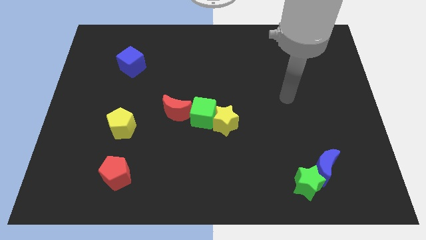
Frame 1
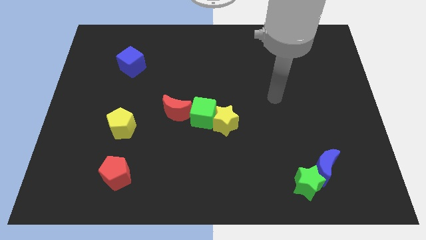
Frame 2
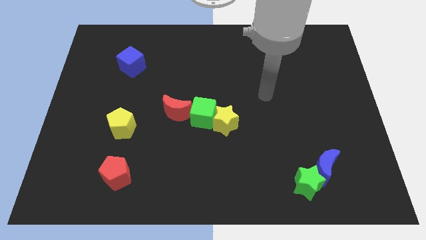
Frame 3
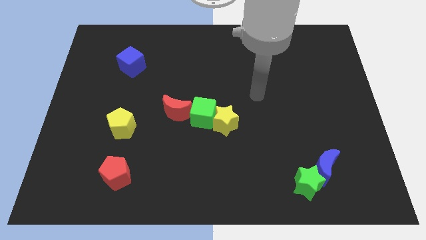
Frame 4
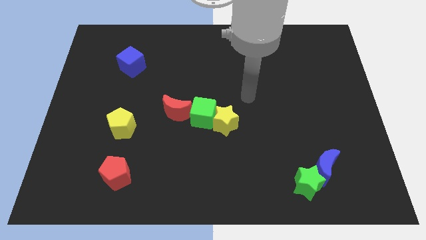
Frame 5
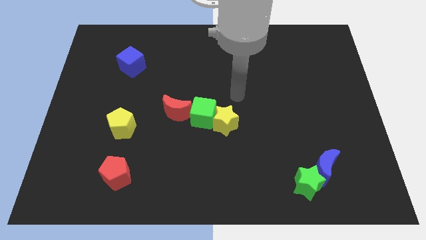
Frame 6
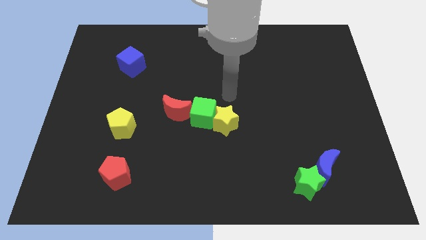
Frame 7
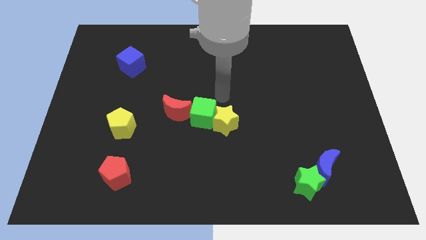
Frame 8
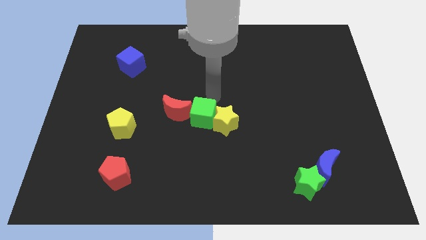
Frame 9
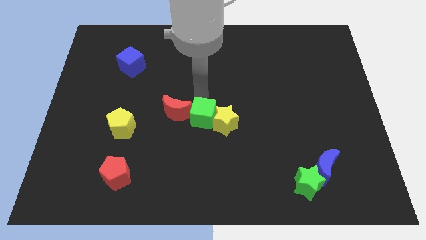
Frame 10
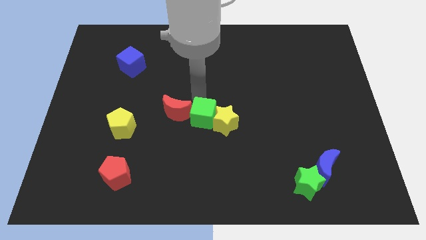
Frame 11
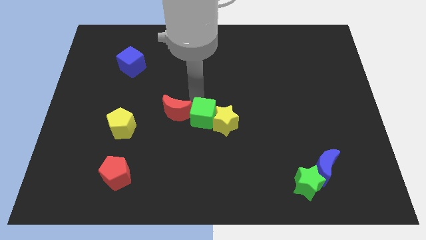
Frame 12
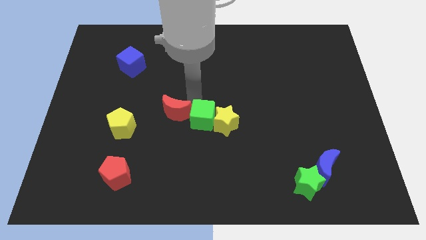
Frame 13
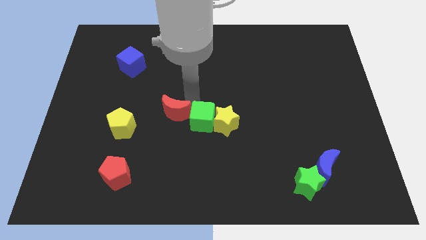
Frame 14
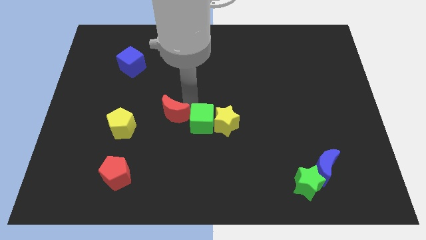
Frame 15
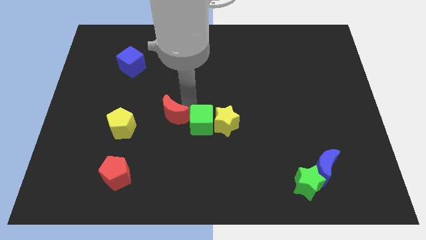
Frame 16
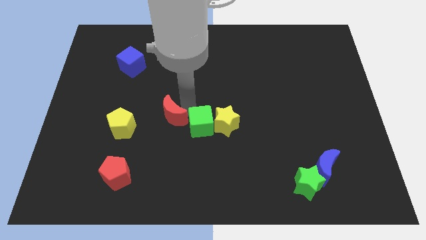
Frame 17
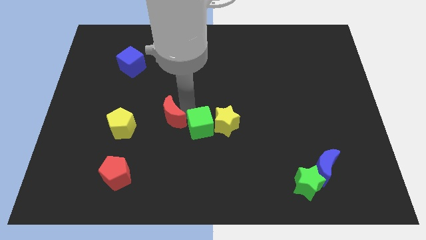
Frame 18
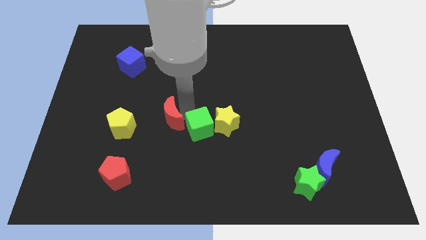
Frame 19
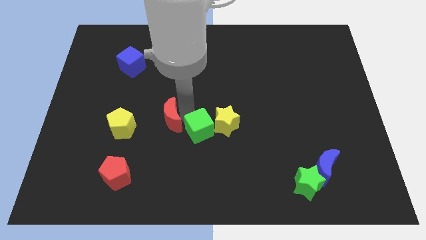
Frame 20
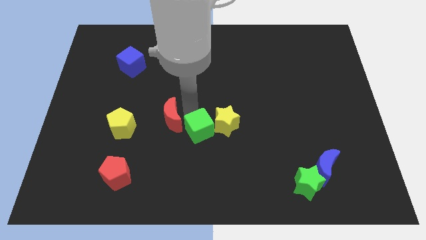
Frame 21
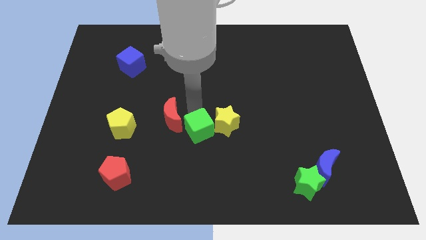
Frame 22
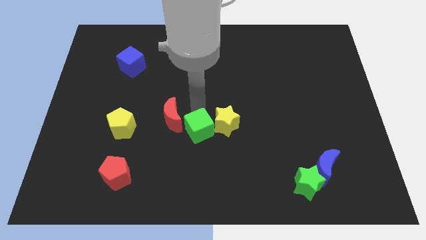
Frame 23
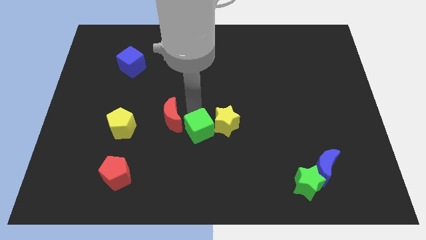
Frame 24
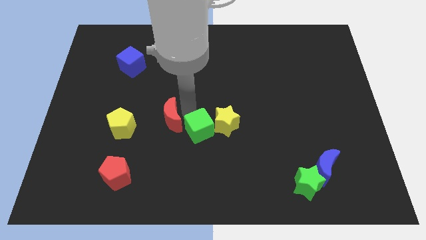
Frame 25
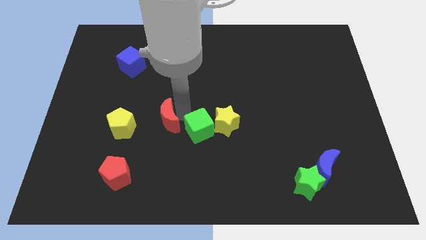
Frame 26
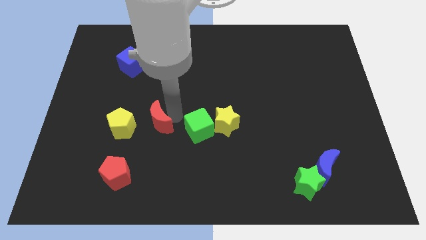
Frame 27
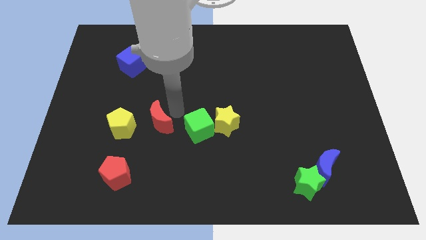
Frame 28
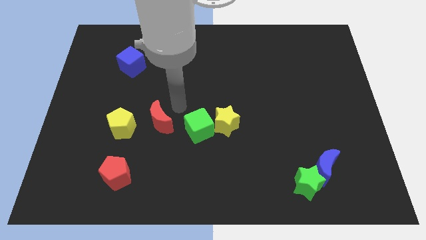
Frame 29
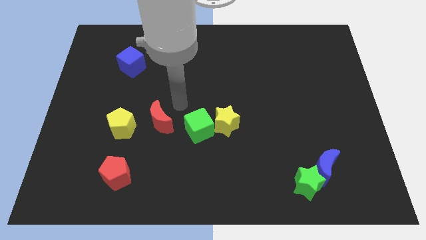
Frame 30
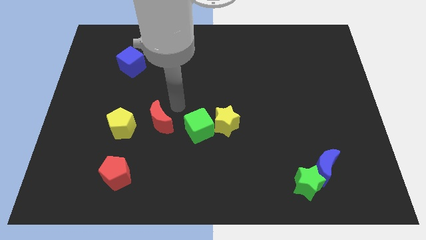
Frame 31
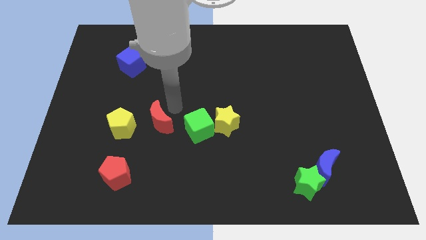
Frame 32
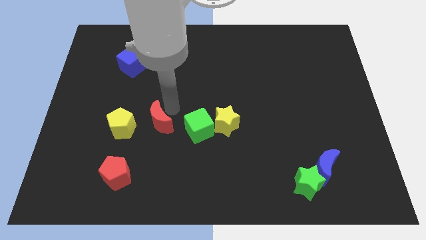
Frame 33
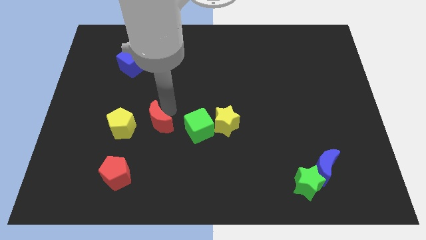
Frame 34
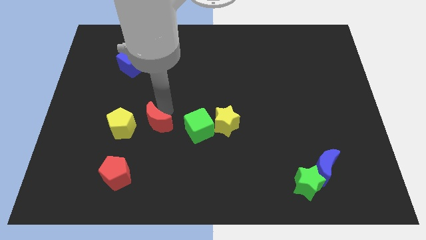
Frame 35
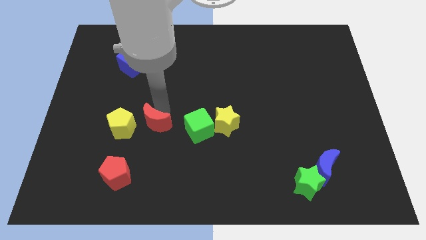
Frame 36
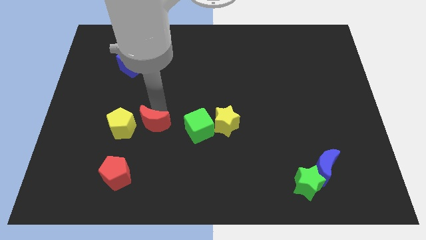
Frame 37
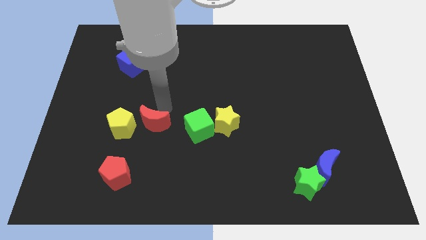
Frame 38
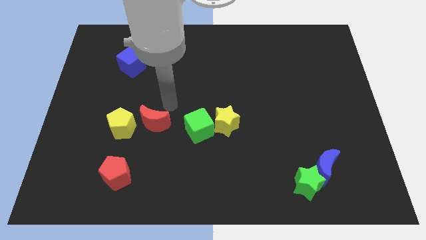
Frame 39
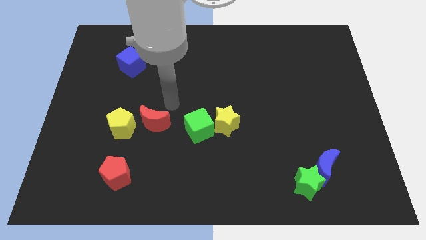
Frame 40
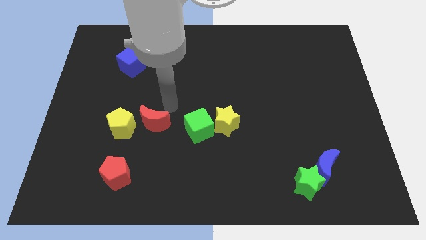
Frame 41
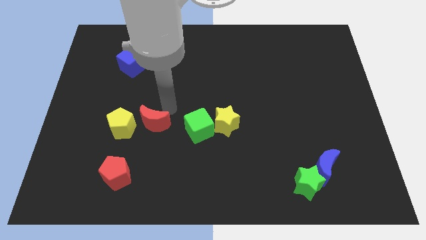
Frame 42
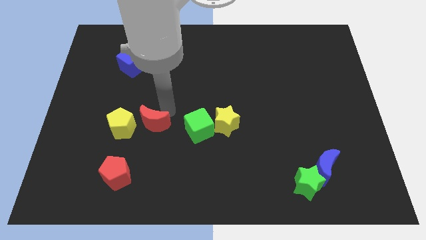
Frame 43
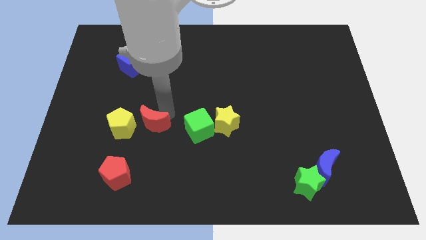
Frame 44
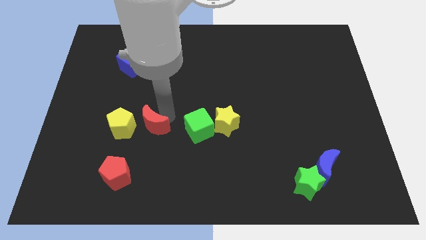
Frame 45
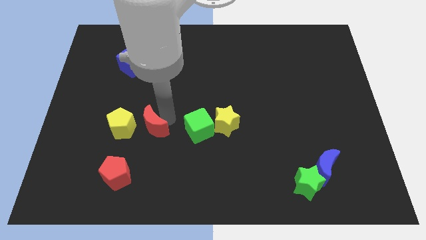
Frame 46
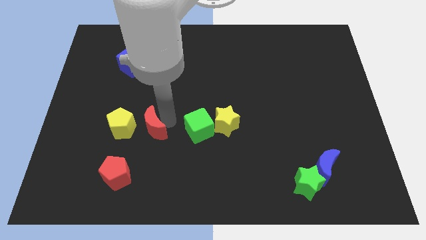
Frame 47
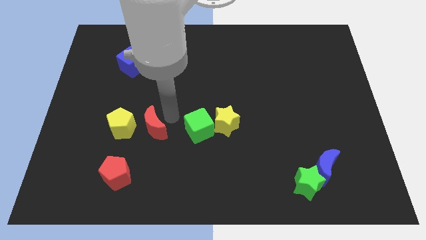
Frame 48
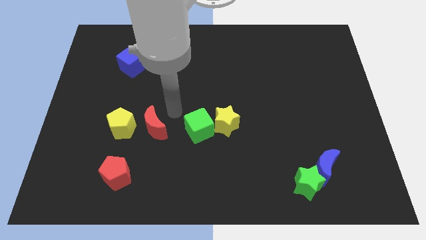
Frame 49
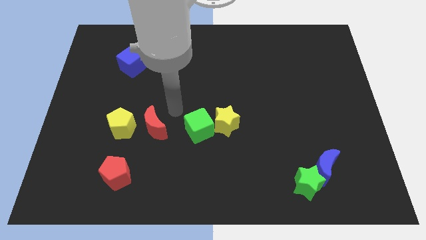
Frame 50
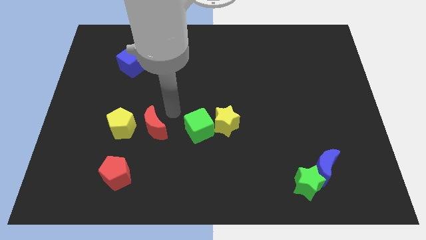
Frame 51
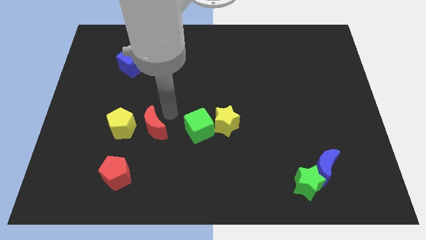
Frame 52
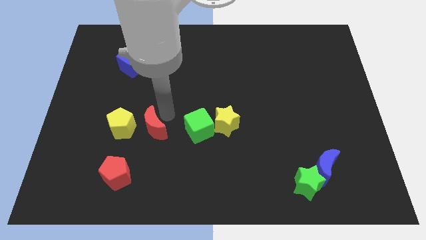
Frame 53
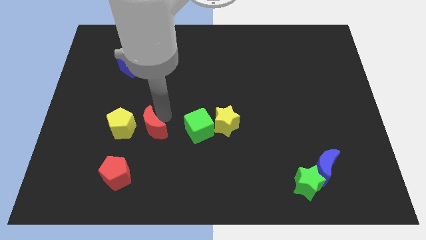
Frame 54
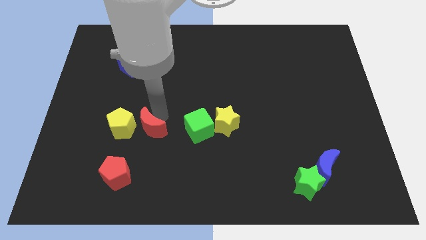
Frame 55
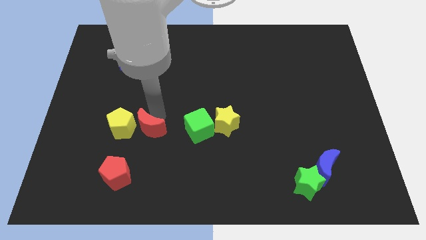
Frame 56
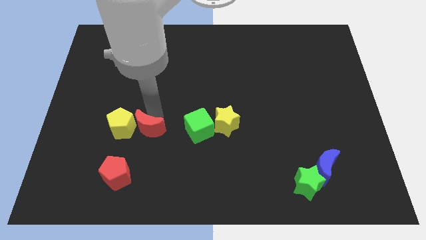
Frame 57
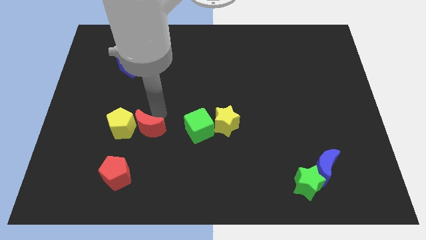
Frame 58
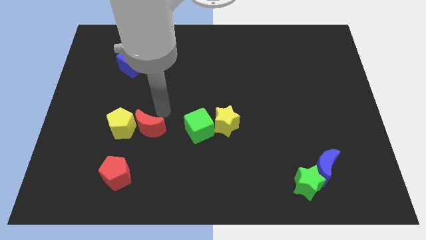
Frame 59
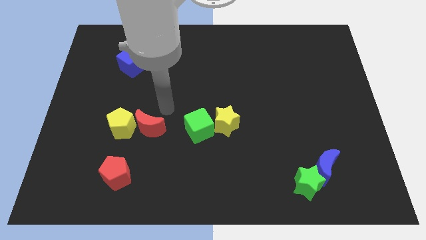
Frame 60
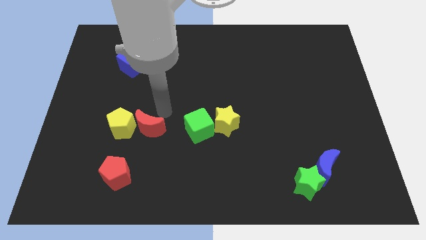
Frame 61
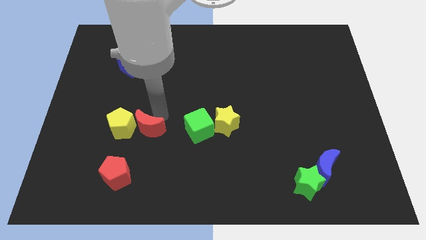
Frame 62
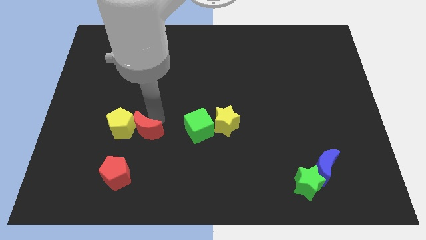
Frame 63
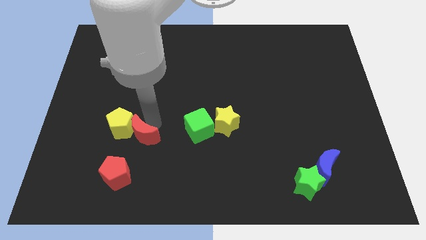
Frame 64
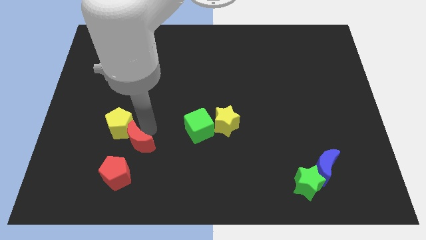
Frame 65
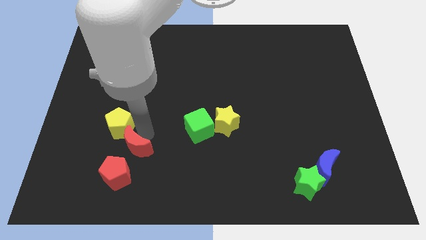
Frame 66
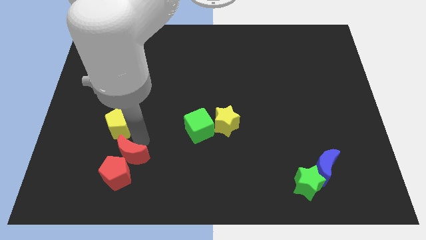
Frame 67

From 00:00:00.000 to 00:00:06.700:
push the red moon next to the red pentagon

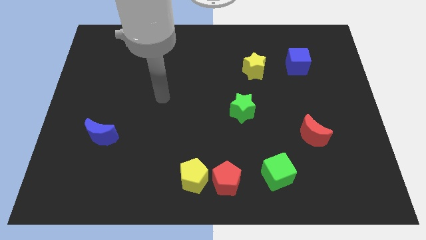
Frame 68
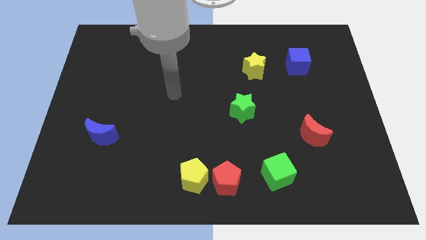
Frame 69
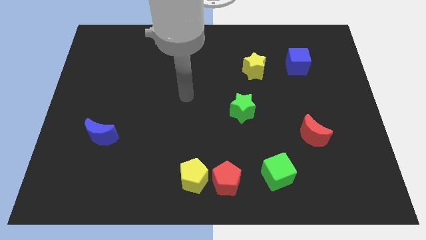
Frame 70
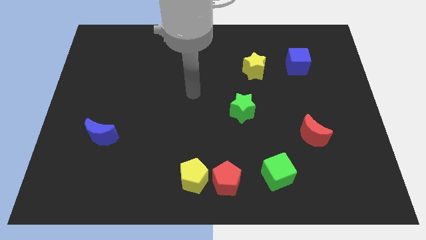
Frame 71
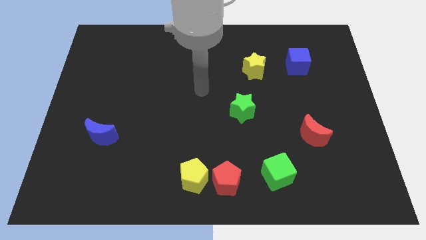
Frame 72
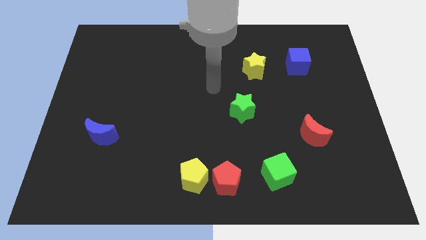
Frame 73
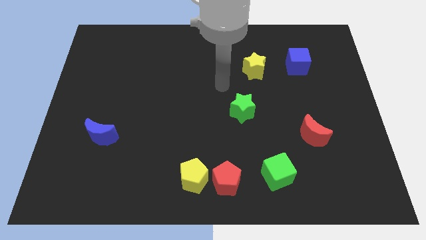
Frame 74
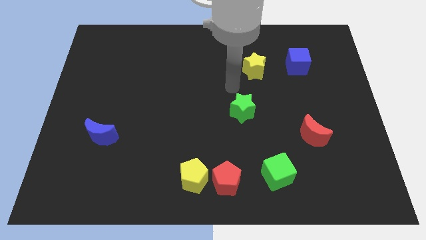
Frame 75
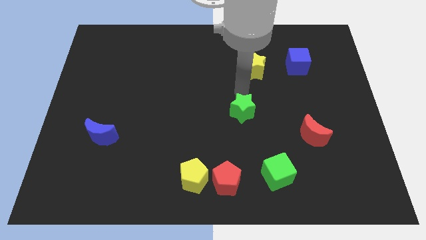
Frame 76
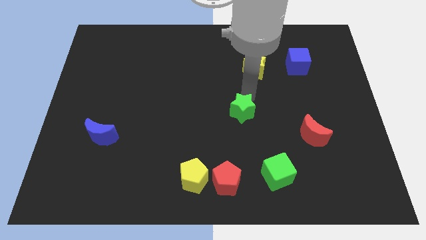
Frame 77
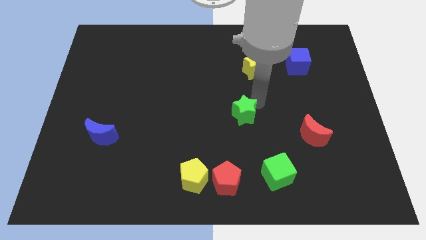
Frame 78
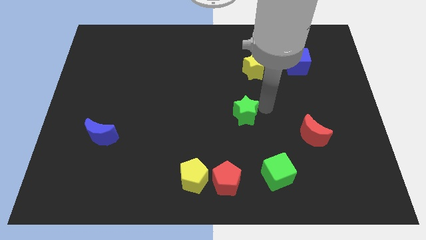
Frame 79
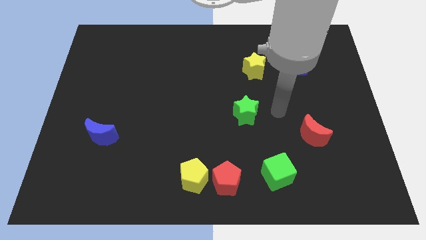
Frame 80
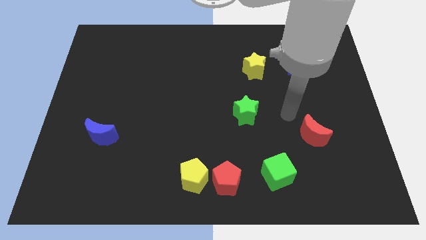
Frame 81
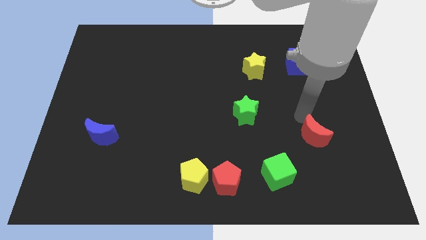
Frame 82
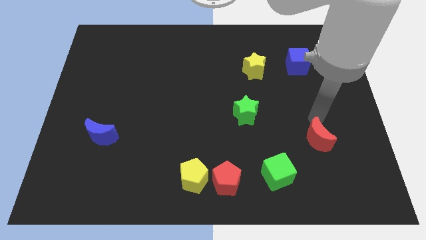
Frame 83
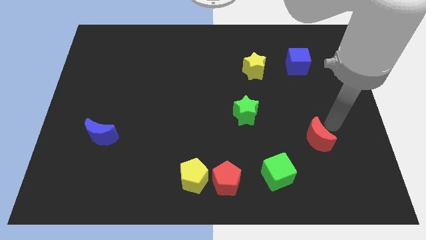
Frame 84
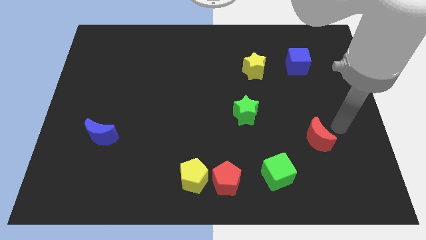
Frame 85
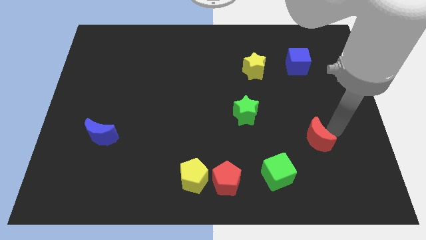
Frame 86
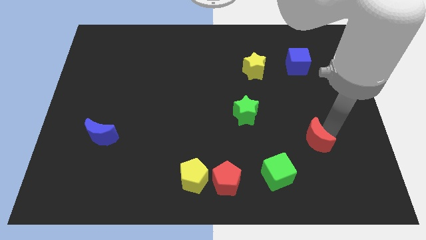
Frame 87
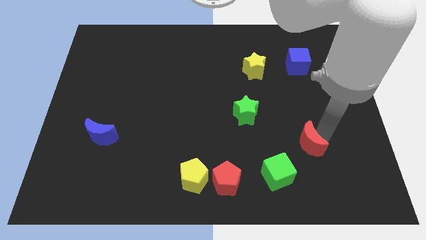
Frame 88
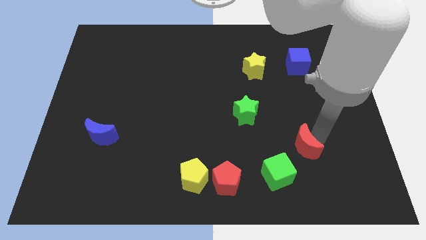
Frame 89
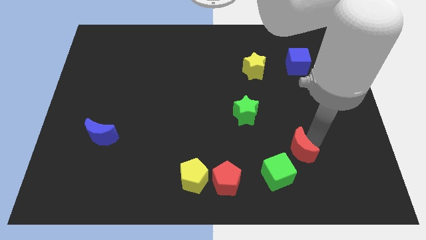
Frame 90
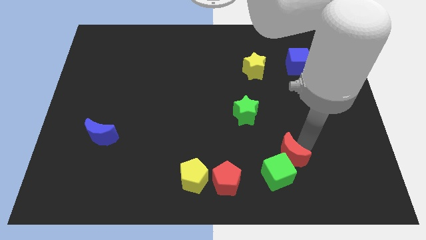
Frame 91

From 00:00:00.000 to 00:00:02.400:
slide the red moon towards the green cube
